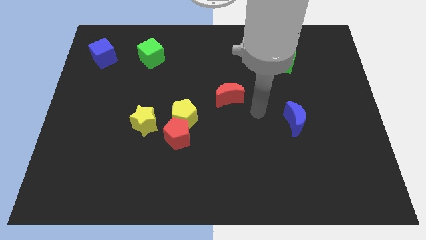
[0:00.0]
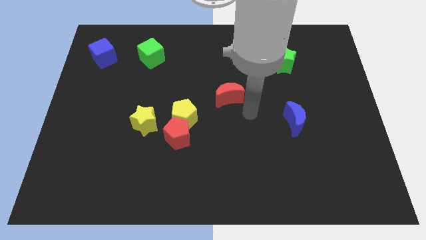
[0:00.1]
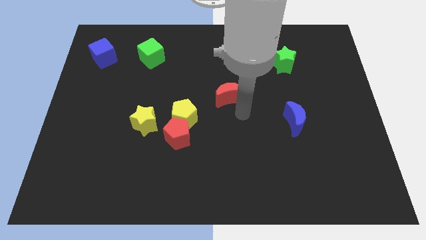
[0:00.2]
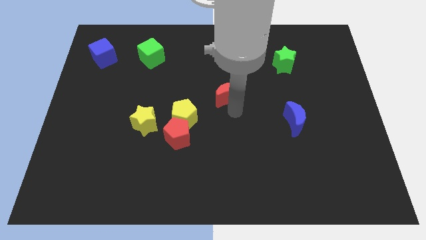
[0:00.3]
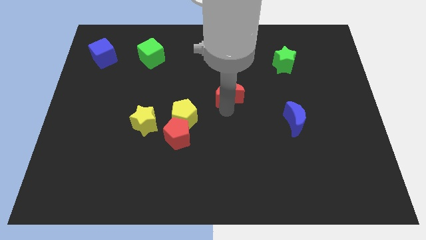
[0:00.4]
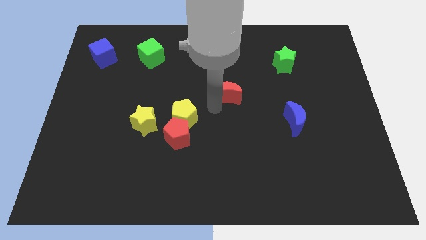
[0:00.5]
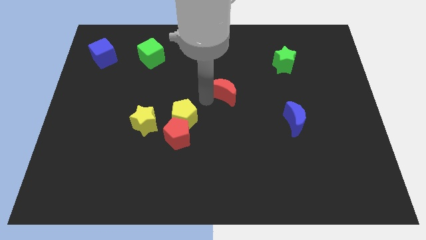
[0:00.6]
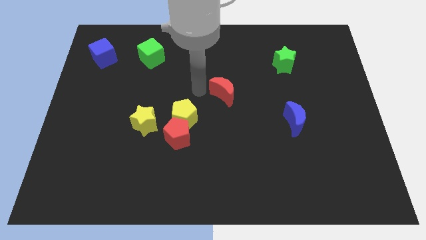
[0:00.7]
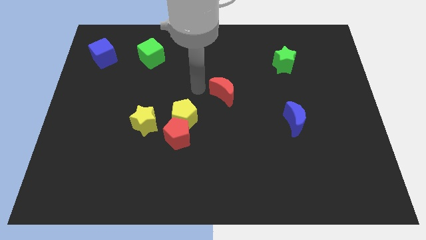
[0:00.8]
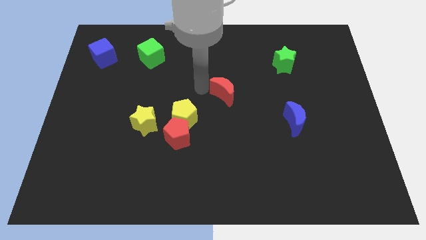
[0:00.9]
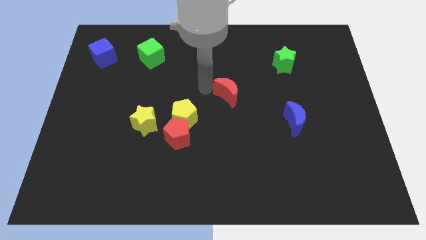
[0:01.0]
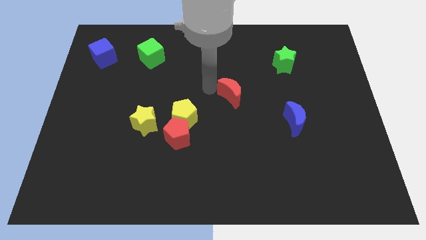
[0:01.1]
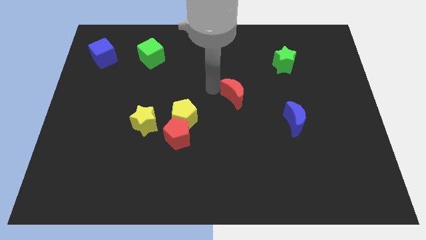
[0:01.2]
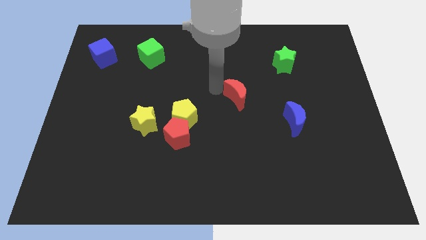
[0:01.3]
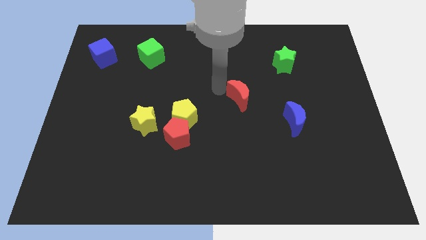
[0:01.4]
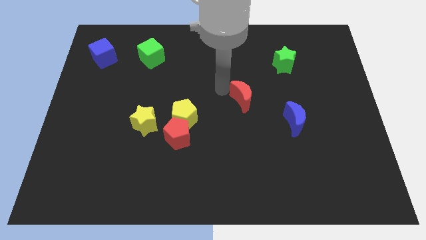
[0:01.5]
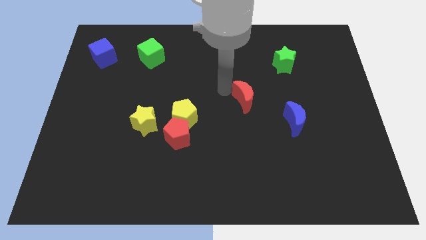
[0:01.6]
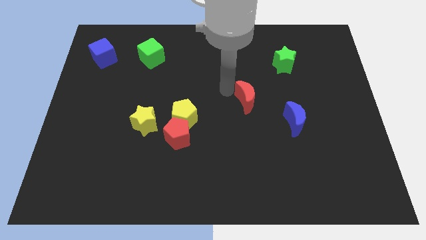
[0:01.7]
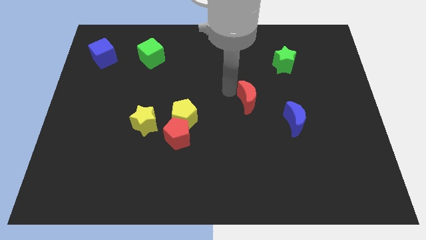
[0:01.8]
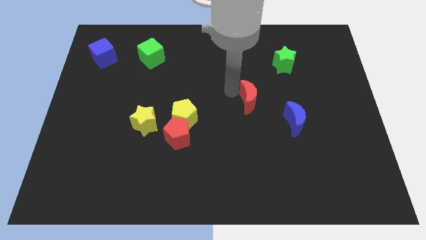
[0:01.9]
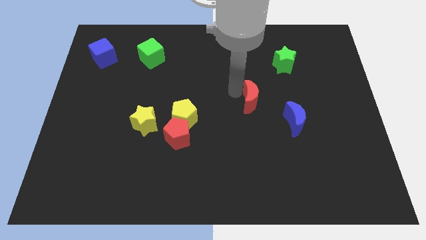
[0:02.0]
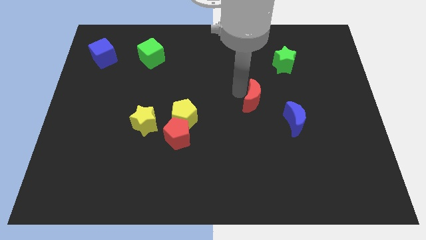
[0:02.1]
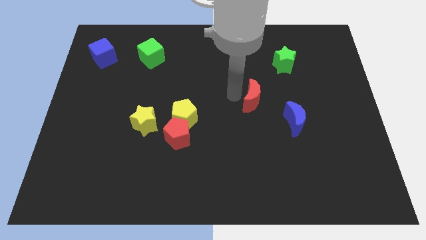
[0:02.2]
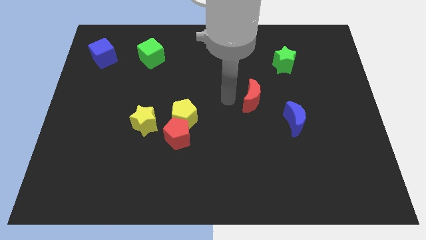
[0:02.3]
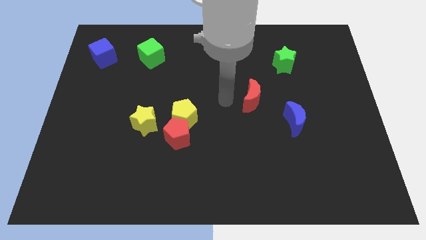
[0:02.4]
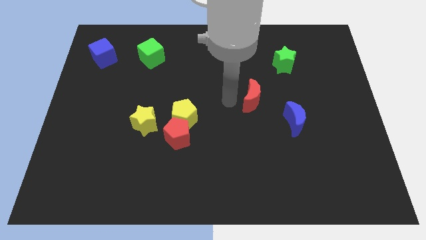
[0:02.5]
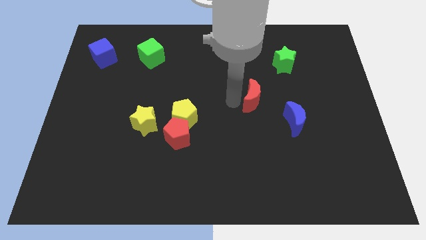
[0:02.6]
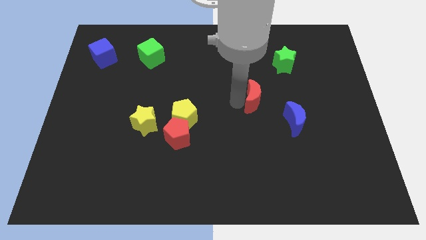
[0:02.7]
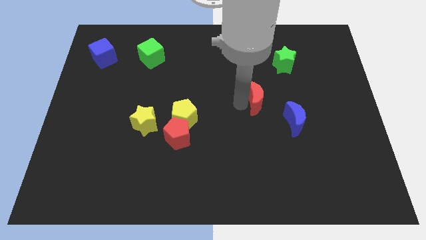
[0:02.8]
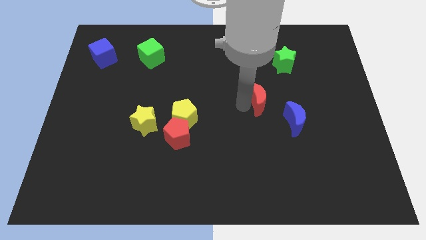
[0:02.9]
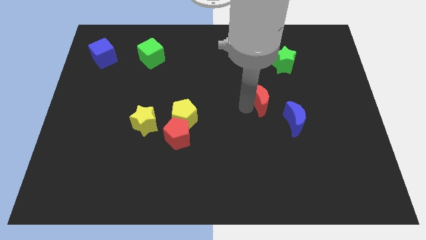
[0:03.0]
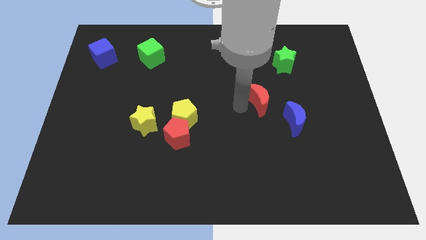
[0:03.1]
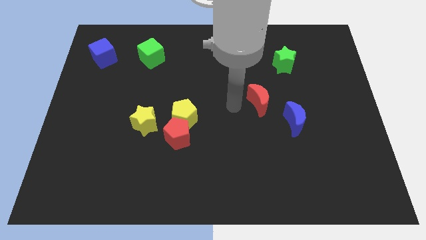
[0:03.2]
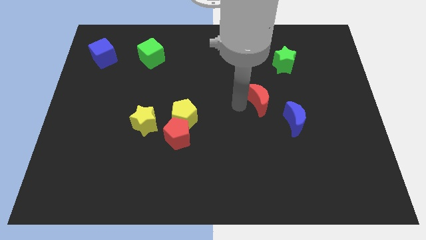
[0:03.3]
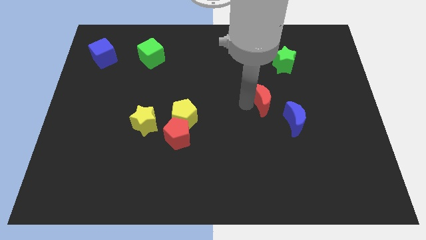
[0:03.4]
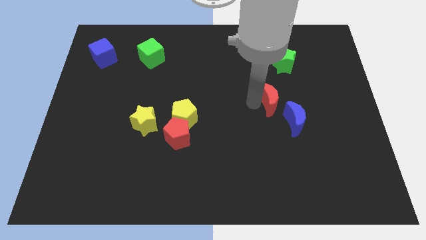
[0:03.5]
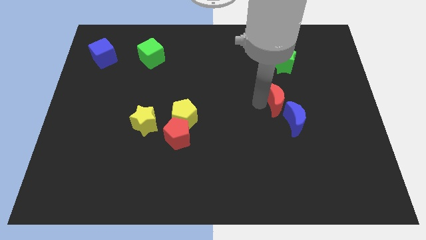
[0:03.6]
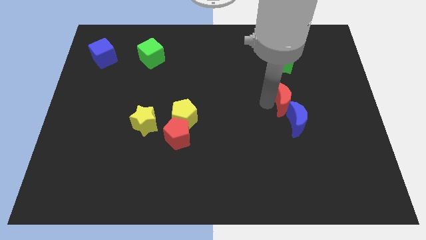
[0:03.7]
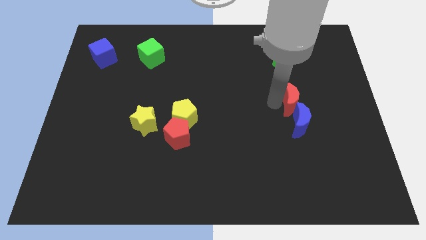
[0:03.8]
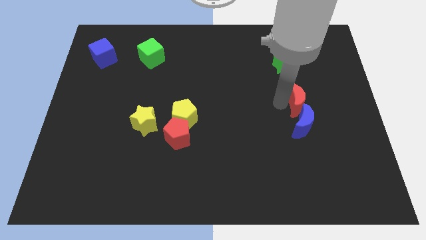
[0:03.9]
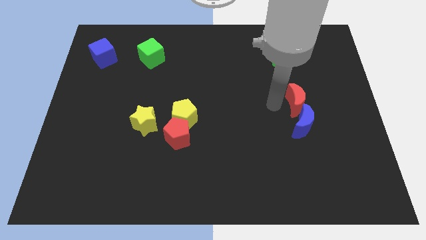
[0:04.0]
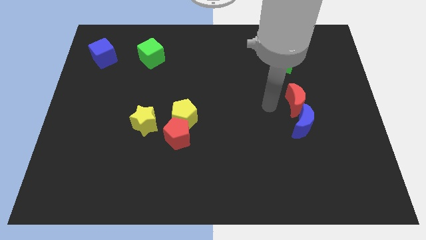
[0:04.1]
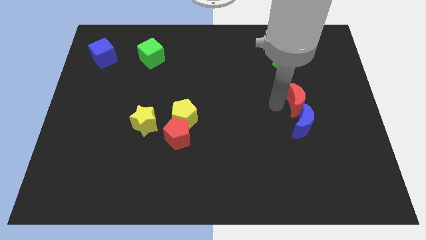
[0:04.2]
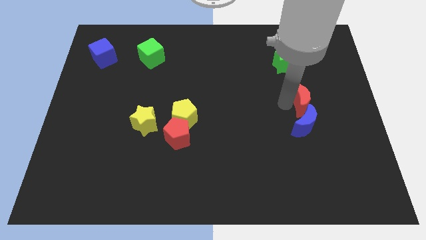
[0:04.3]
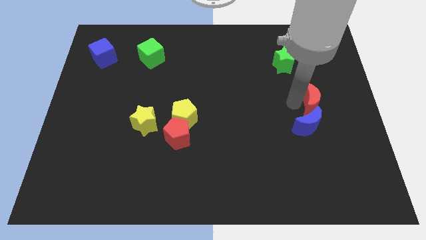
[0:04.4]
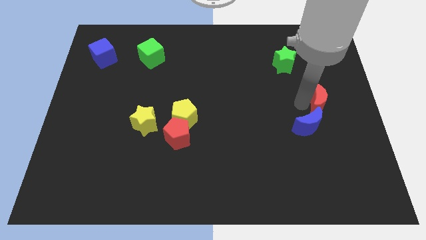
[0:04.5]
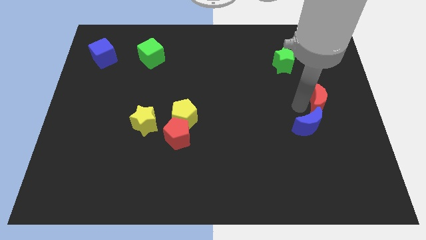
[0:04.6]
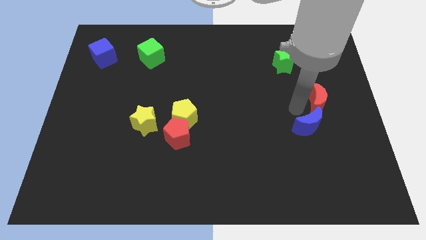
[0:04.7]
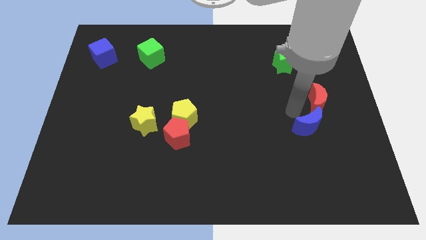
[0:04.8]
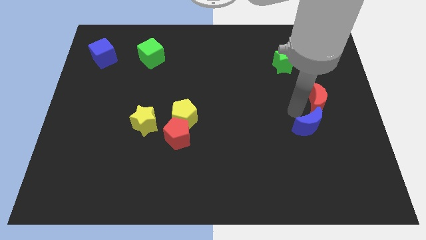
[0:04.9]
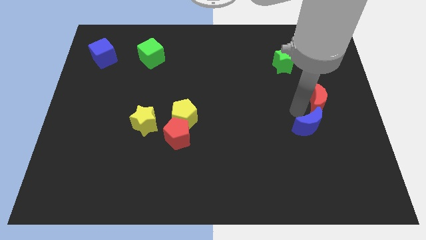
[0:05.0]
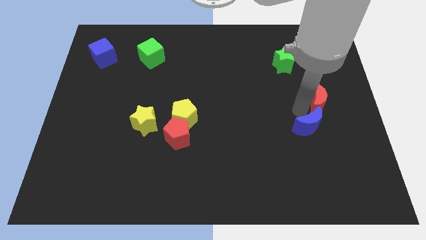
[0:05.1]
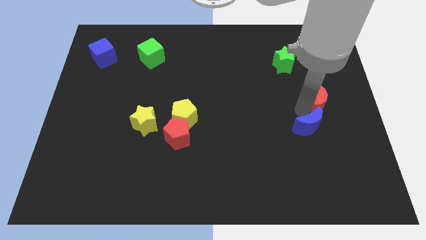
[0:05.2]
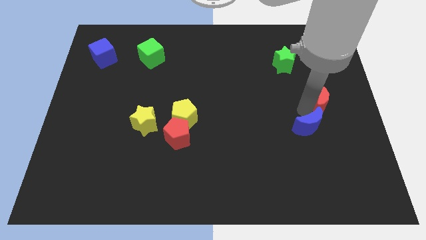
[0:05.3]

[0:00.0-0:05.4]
put the red moon to the right side of the board
